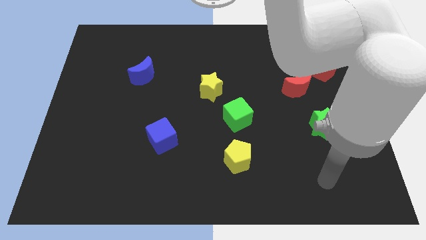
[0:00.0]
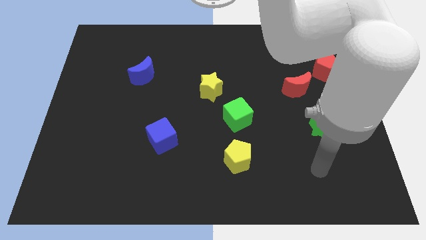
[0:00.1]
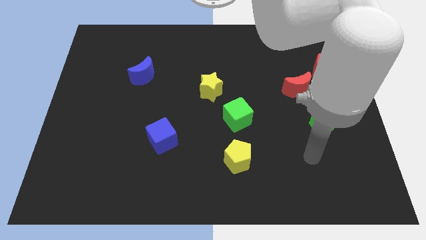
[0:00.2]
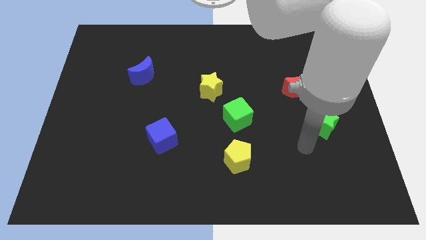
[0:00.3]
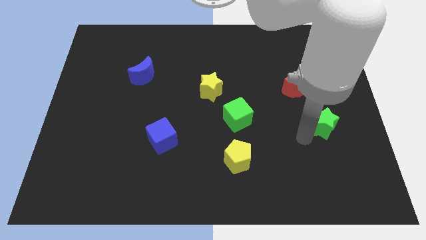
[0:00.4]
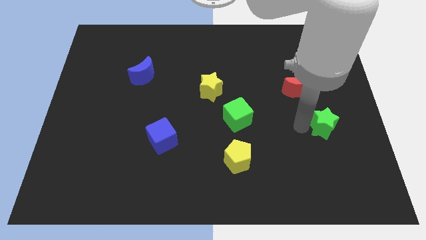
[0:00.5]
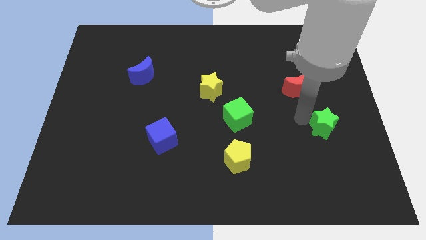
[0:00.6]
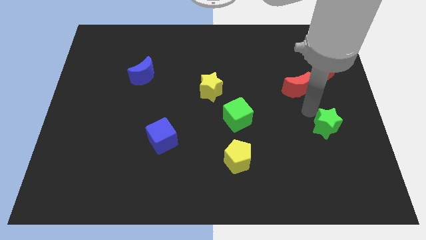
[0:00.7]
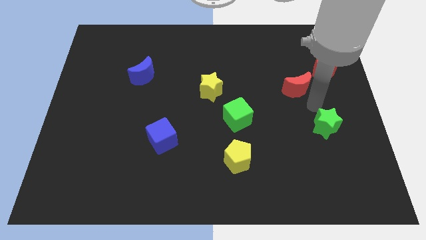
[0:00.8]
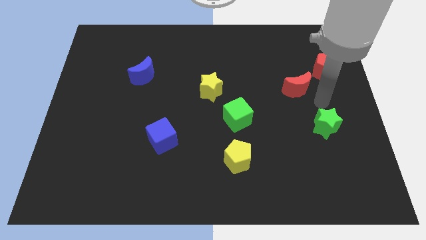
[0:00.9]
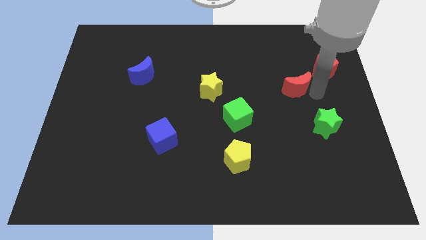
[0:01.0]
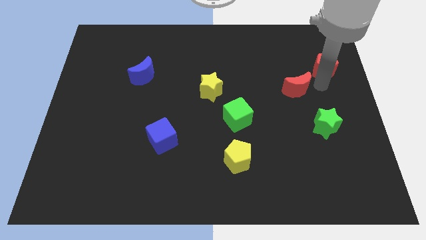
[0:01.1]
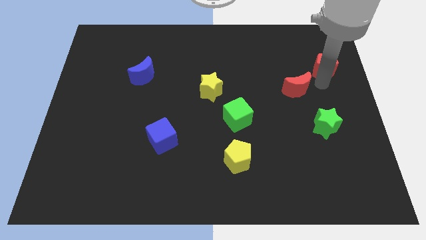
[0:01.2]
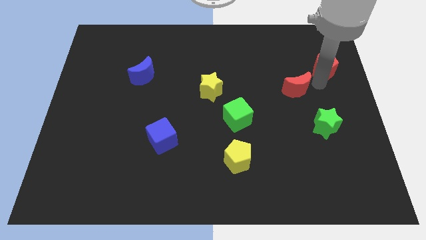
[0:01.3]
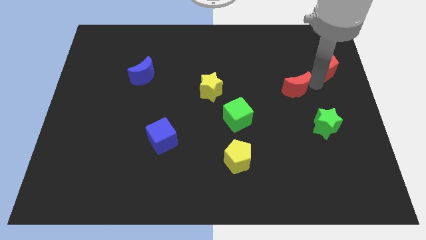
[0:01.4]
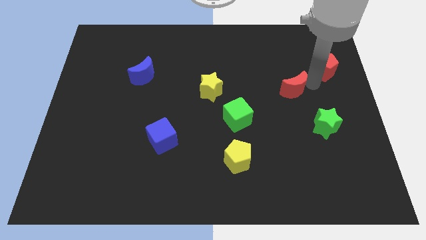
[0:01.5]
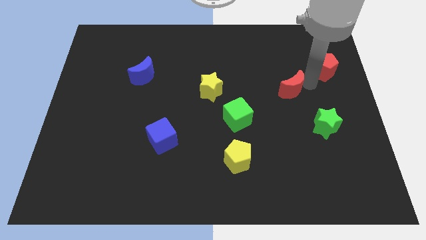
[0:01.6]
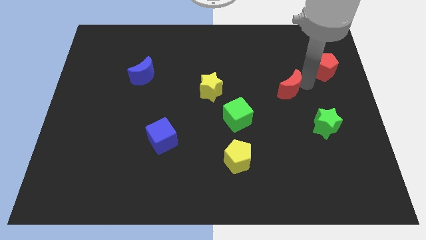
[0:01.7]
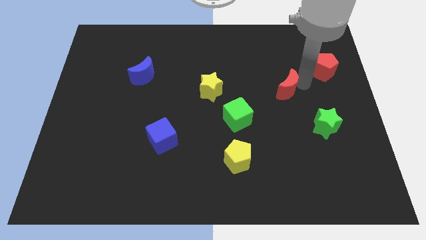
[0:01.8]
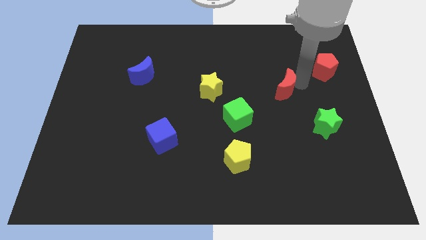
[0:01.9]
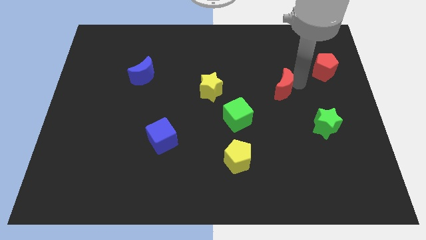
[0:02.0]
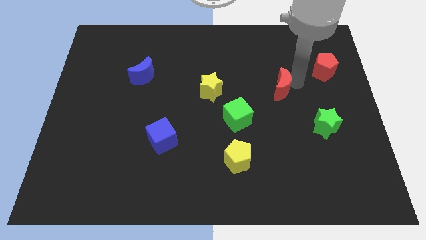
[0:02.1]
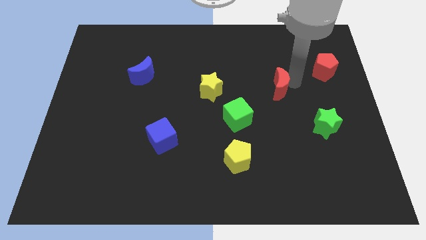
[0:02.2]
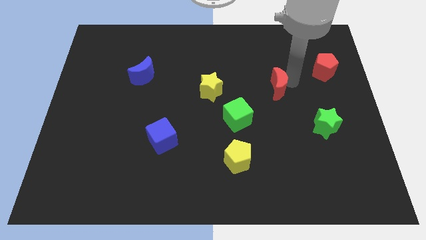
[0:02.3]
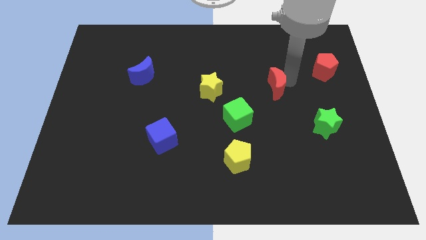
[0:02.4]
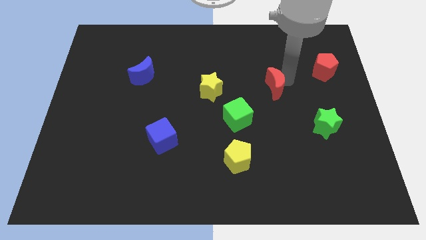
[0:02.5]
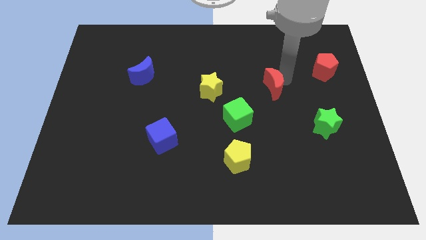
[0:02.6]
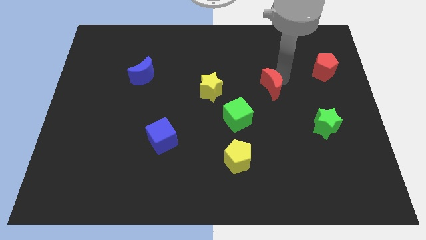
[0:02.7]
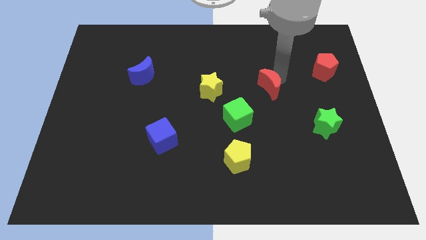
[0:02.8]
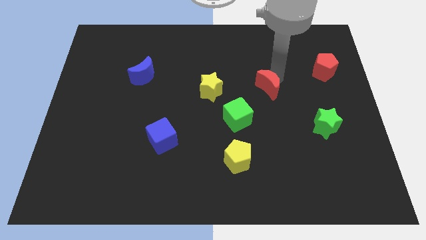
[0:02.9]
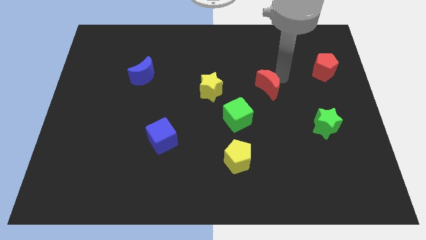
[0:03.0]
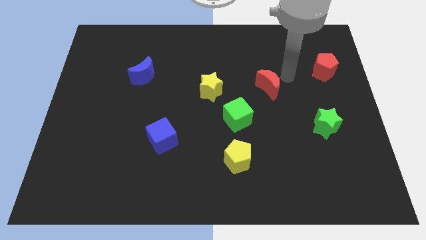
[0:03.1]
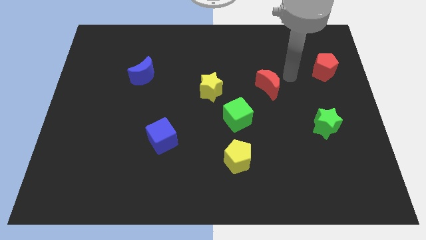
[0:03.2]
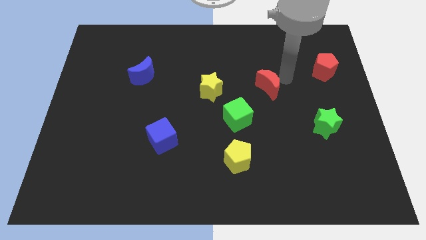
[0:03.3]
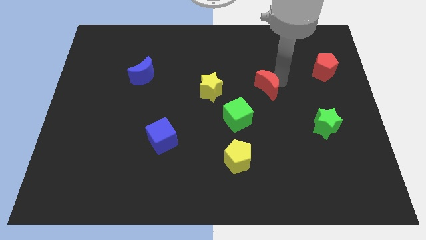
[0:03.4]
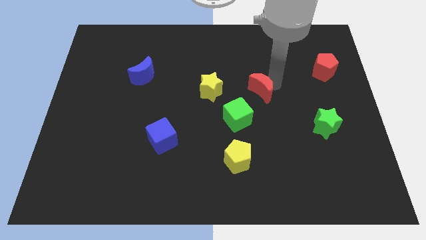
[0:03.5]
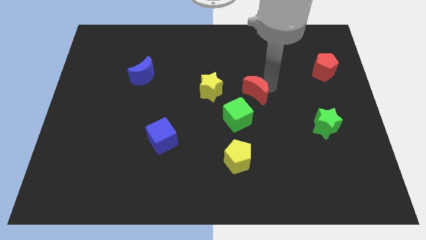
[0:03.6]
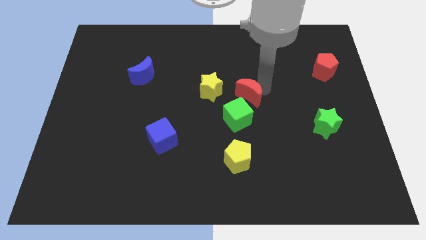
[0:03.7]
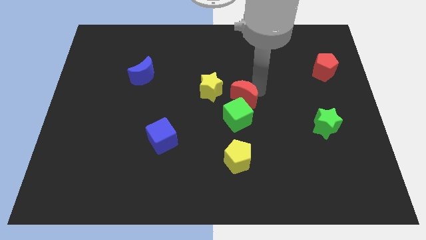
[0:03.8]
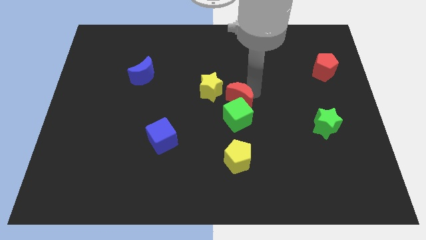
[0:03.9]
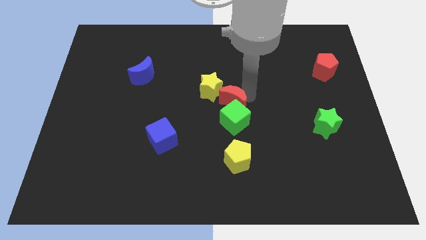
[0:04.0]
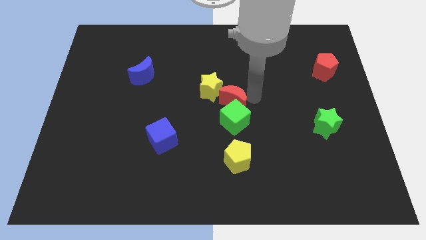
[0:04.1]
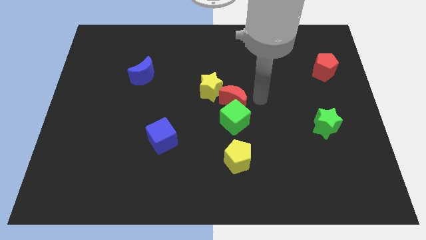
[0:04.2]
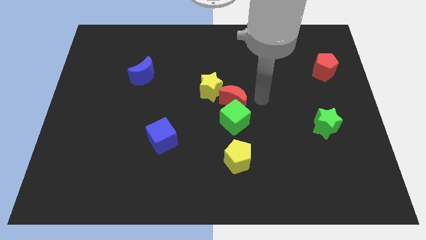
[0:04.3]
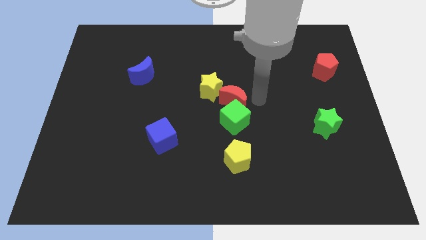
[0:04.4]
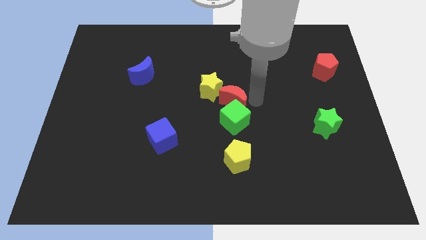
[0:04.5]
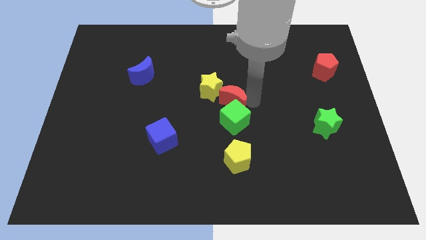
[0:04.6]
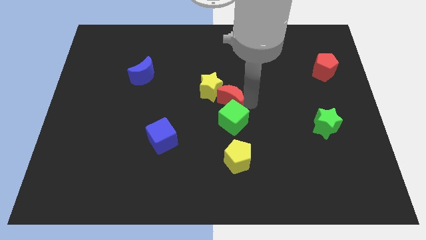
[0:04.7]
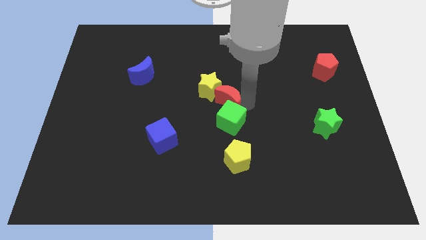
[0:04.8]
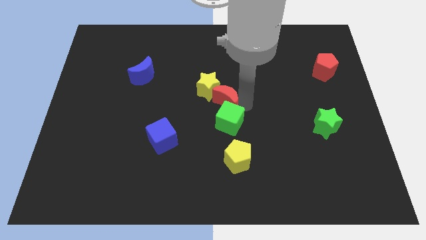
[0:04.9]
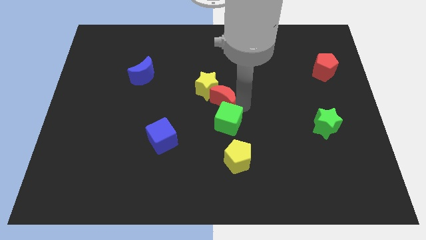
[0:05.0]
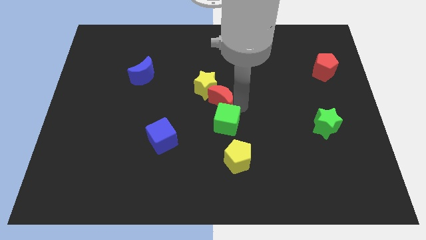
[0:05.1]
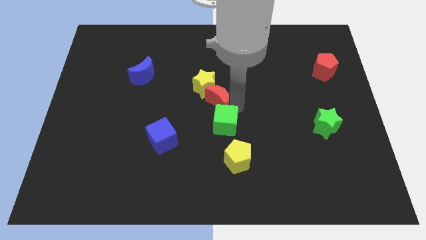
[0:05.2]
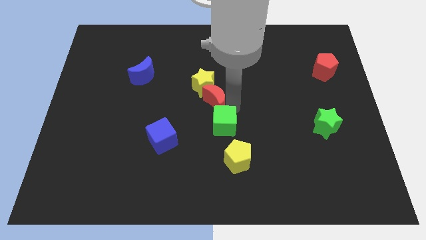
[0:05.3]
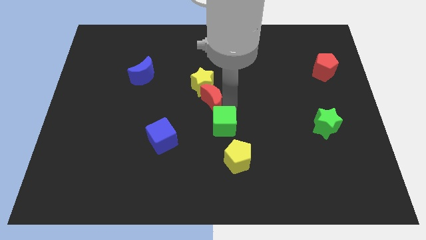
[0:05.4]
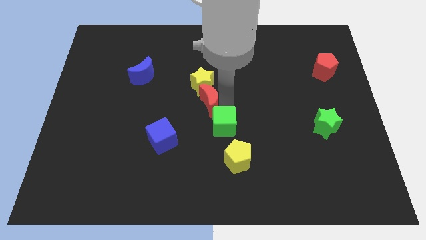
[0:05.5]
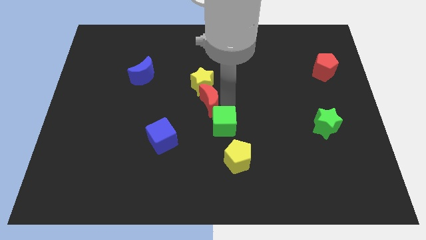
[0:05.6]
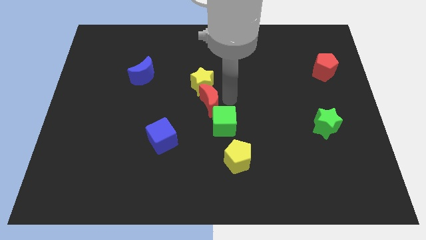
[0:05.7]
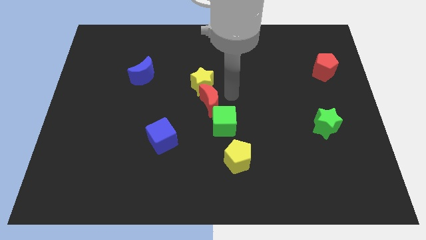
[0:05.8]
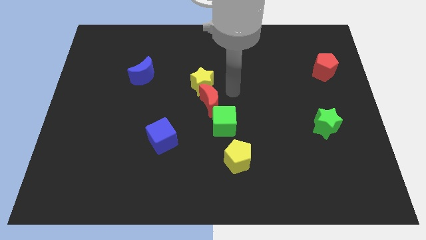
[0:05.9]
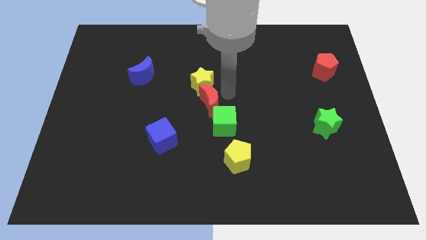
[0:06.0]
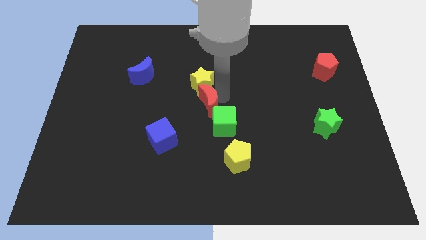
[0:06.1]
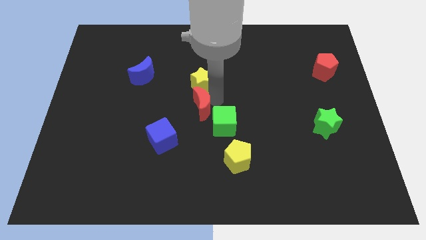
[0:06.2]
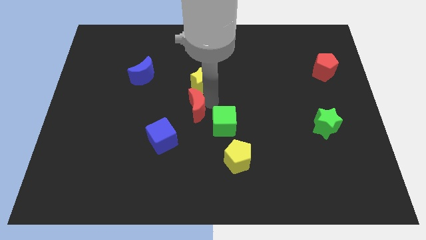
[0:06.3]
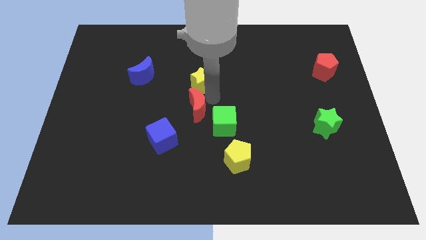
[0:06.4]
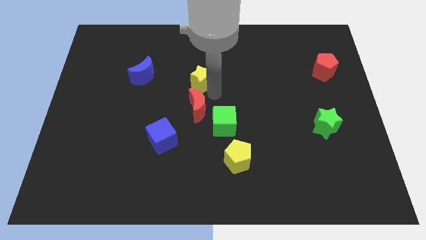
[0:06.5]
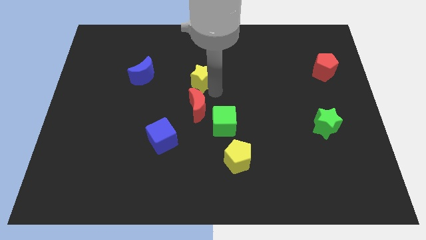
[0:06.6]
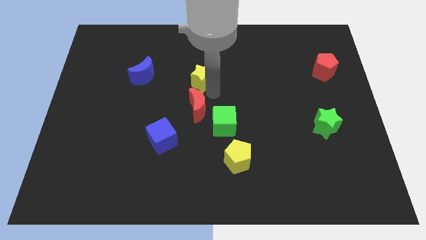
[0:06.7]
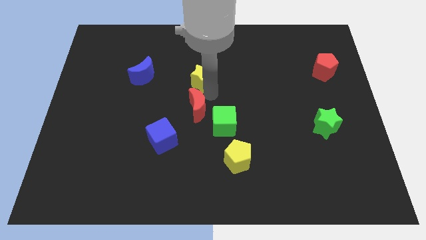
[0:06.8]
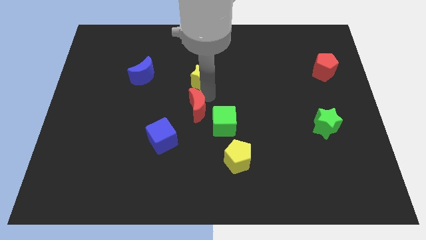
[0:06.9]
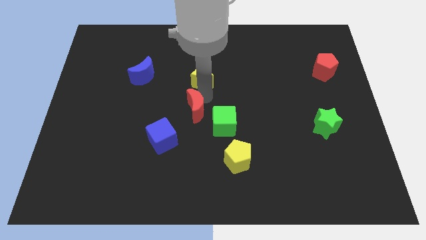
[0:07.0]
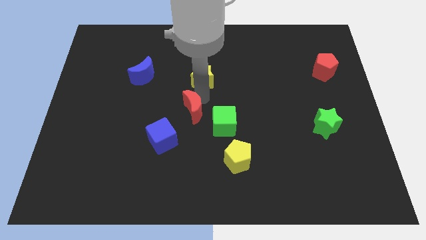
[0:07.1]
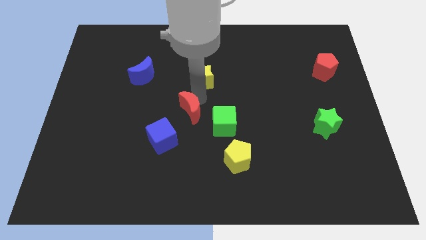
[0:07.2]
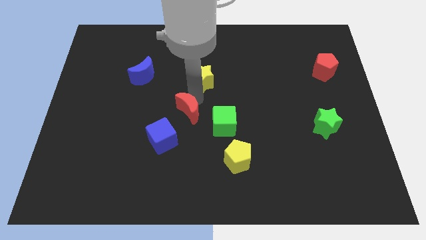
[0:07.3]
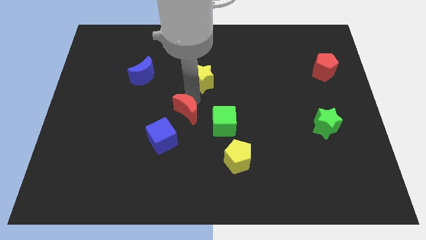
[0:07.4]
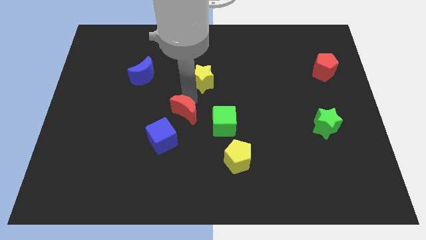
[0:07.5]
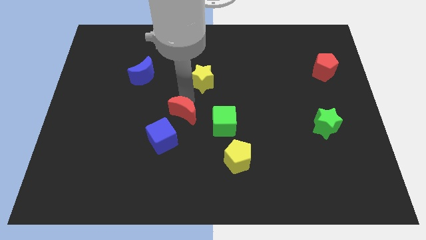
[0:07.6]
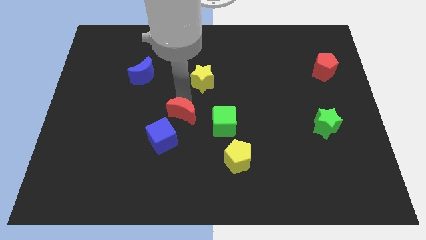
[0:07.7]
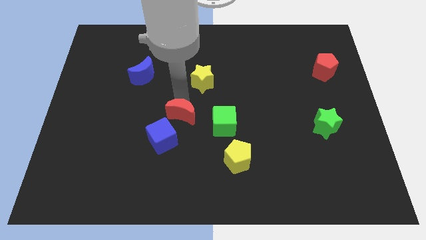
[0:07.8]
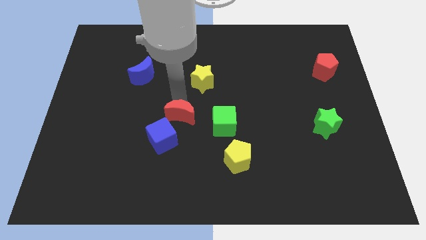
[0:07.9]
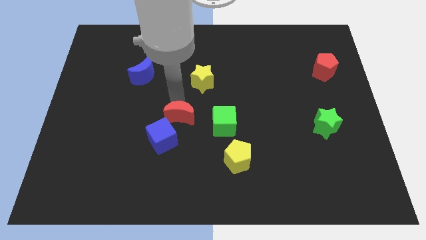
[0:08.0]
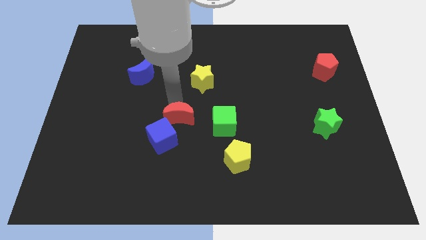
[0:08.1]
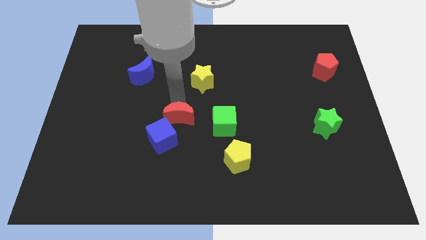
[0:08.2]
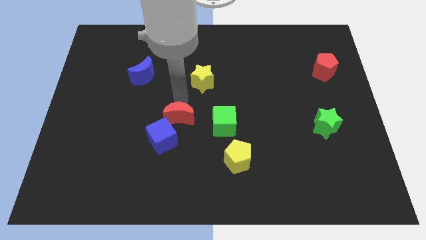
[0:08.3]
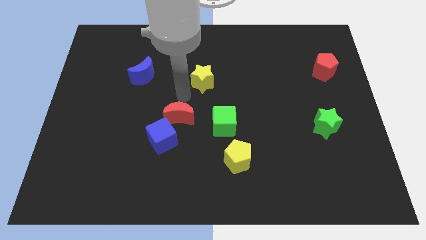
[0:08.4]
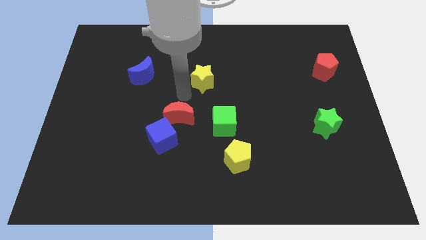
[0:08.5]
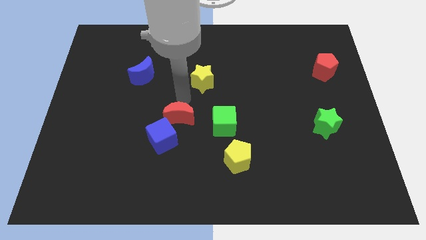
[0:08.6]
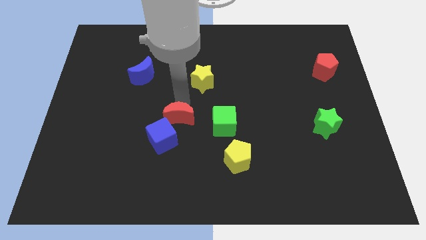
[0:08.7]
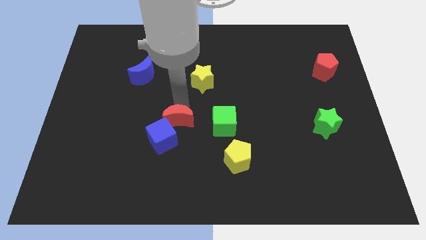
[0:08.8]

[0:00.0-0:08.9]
move the red moon to the blue cube
